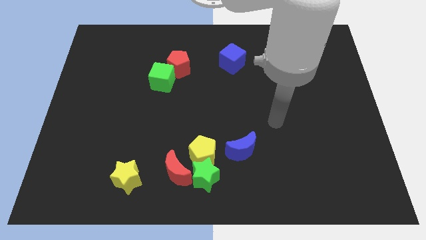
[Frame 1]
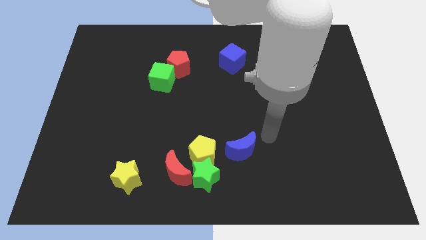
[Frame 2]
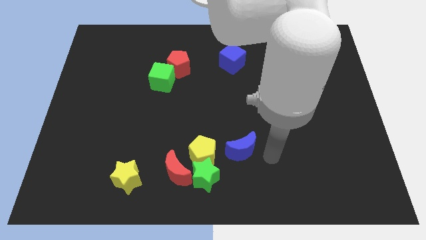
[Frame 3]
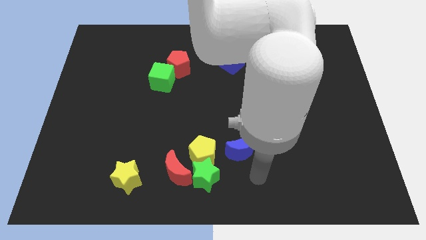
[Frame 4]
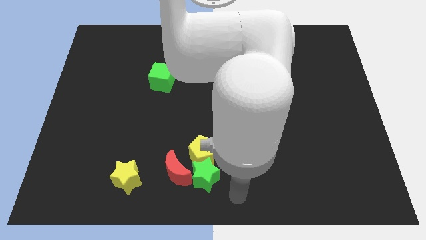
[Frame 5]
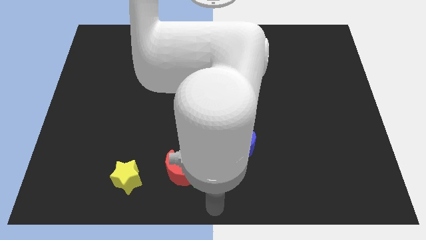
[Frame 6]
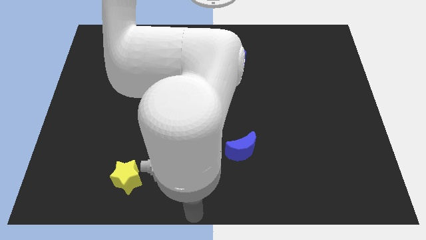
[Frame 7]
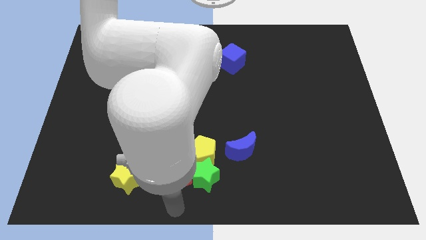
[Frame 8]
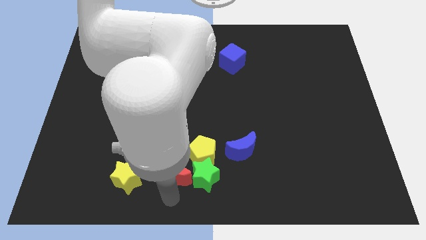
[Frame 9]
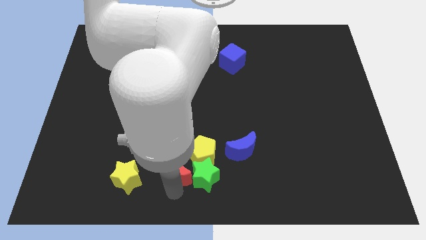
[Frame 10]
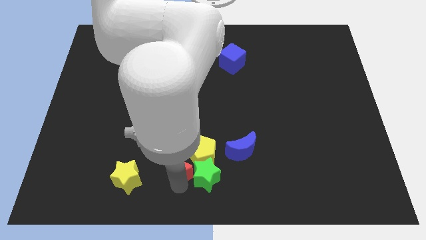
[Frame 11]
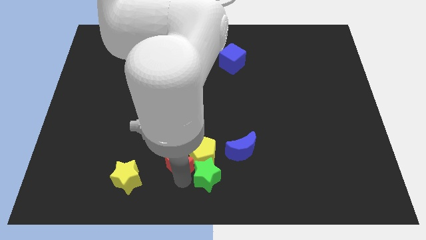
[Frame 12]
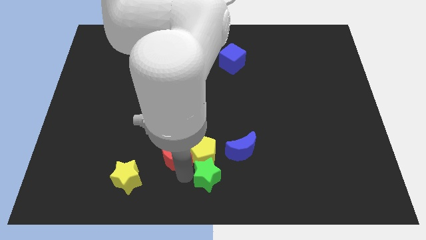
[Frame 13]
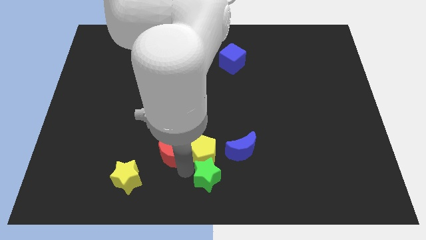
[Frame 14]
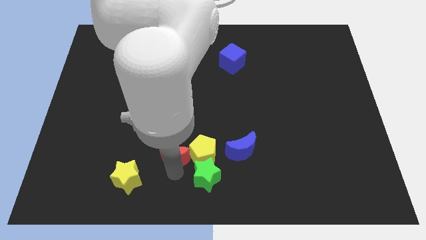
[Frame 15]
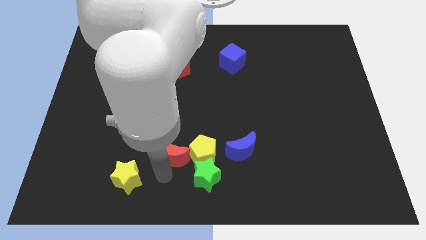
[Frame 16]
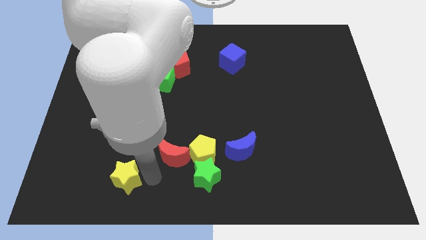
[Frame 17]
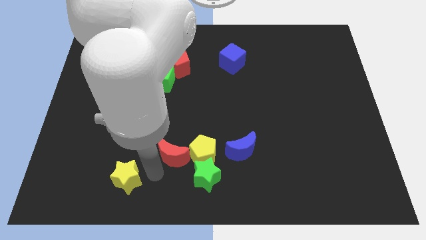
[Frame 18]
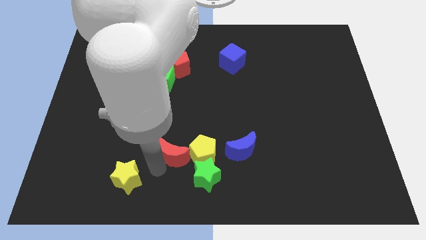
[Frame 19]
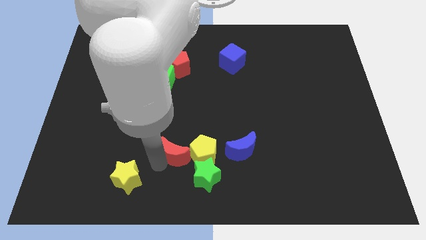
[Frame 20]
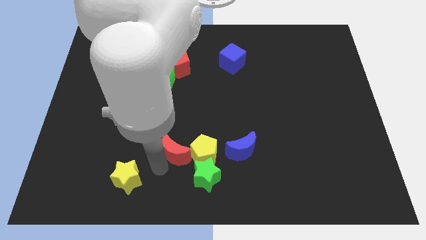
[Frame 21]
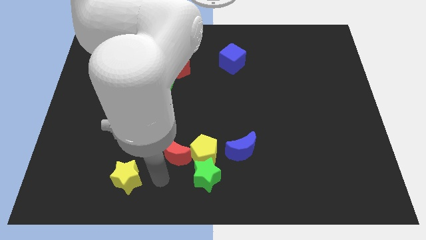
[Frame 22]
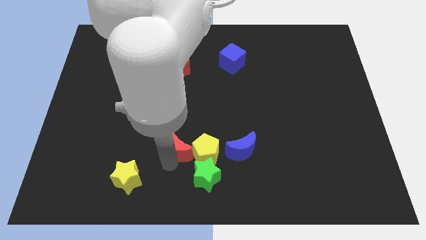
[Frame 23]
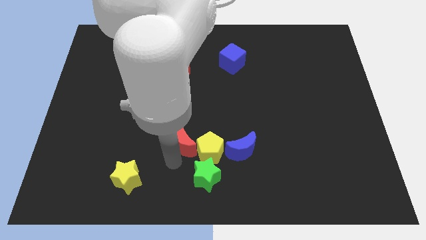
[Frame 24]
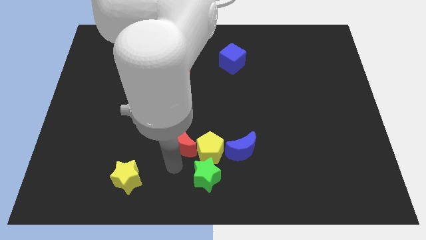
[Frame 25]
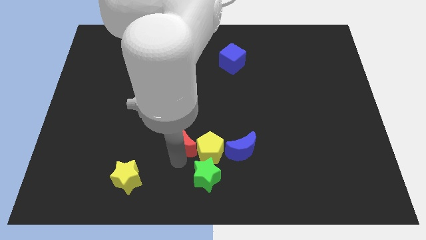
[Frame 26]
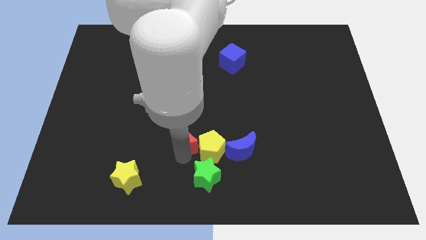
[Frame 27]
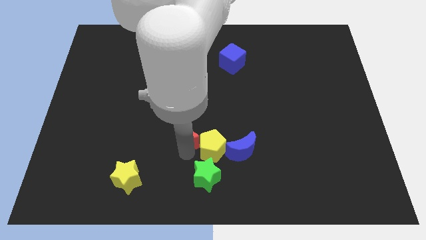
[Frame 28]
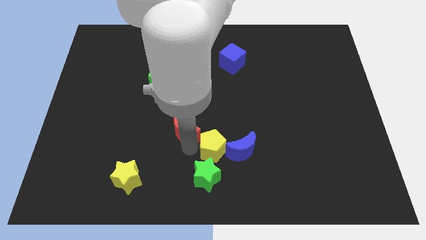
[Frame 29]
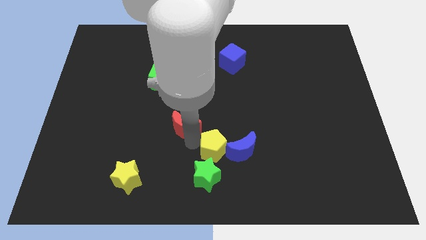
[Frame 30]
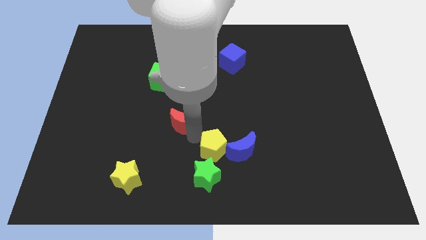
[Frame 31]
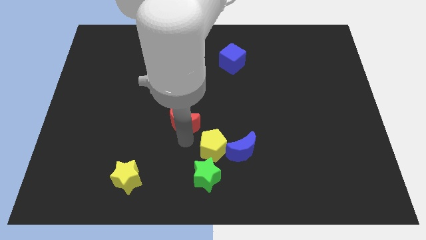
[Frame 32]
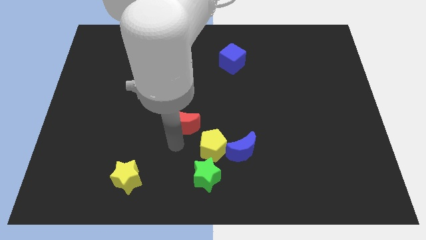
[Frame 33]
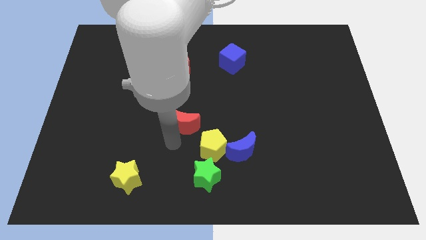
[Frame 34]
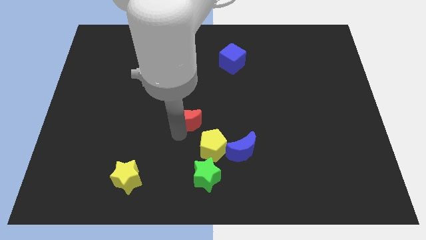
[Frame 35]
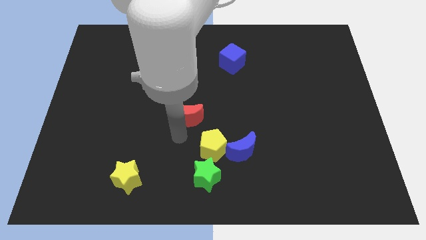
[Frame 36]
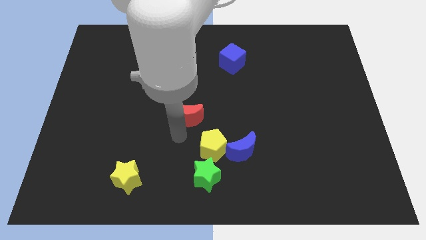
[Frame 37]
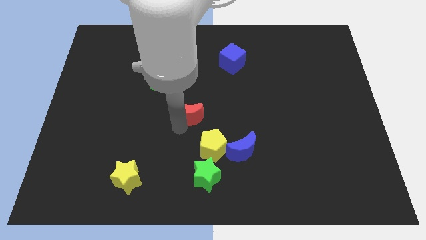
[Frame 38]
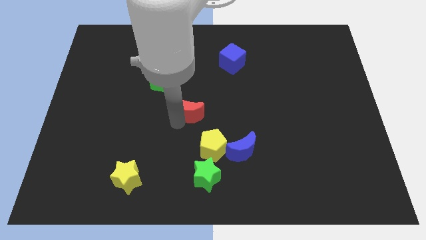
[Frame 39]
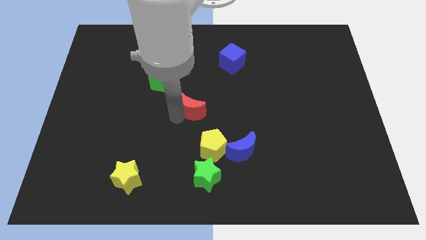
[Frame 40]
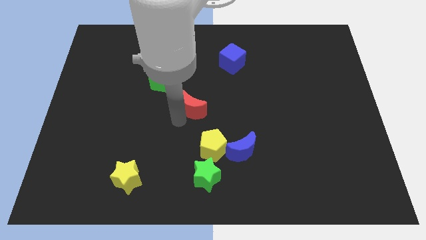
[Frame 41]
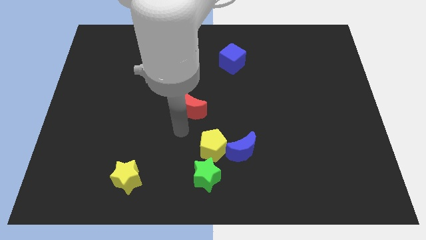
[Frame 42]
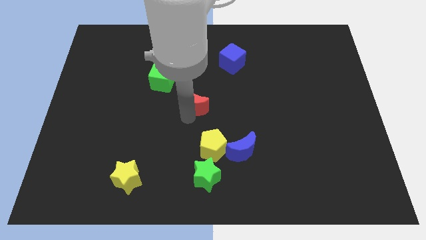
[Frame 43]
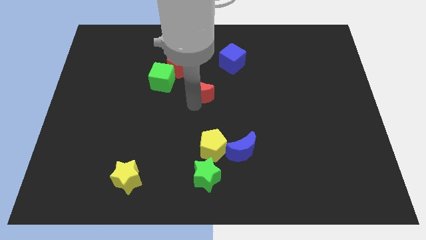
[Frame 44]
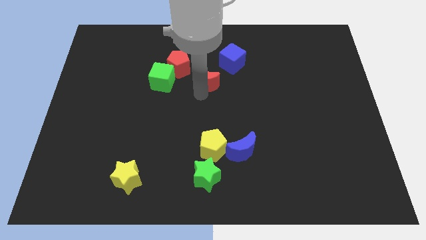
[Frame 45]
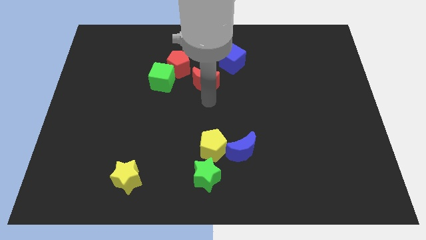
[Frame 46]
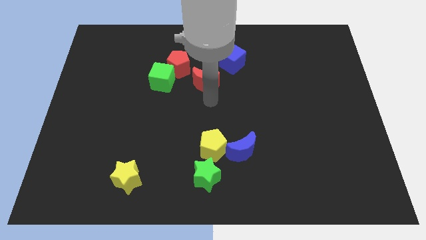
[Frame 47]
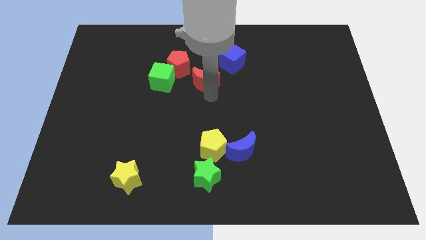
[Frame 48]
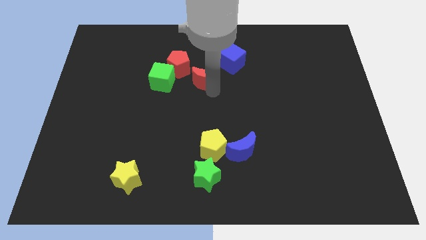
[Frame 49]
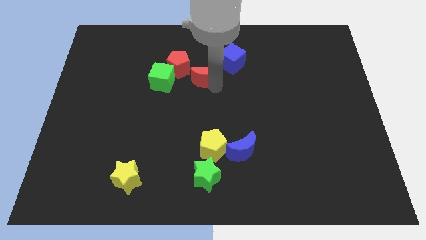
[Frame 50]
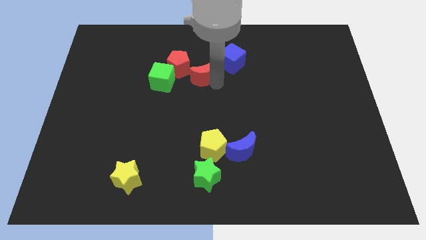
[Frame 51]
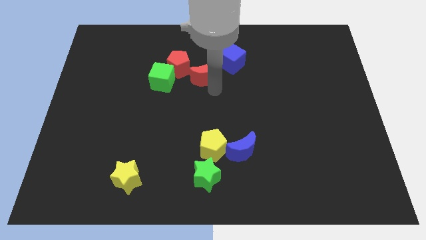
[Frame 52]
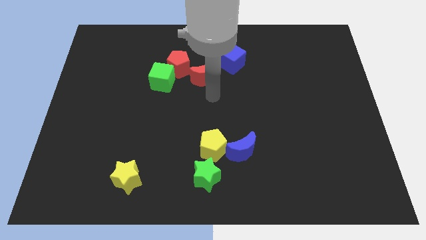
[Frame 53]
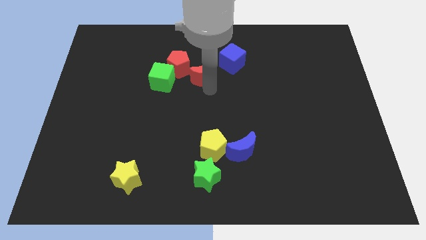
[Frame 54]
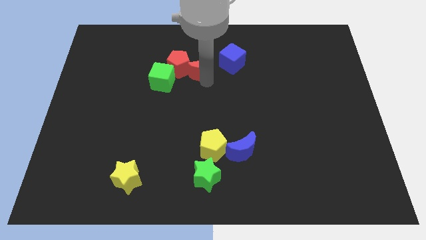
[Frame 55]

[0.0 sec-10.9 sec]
push the red moon to the top right side of the green cube

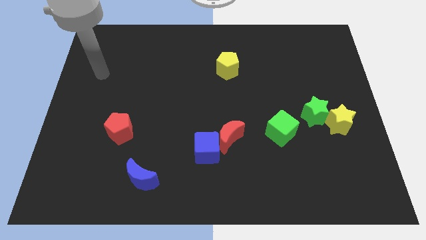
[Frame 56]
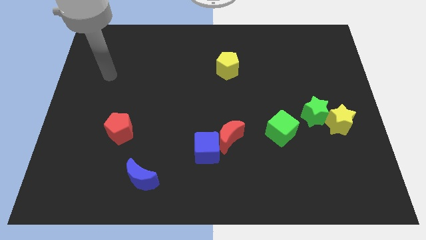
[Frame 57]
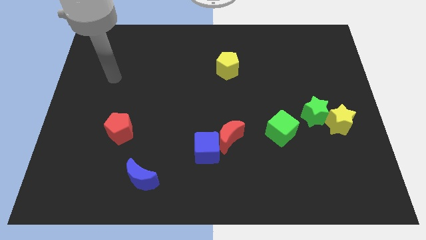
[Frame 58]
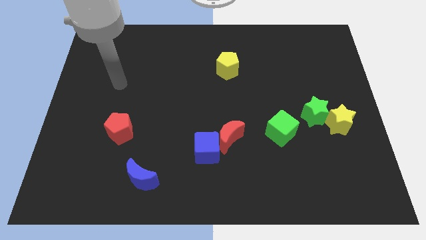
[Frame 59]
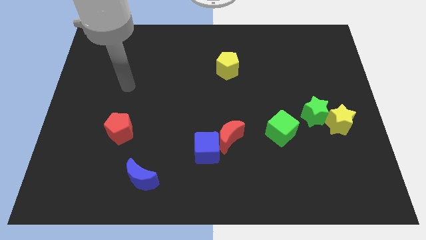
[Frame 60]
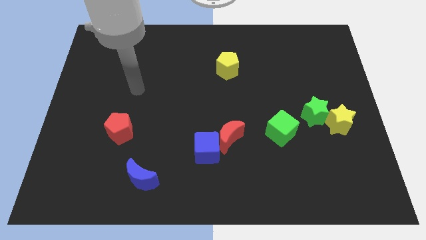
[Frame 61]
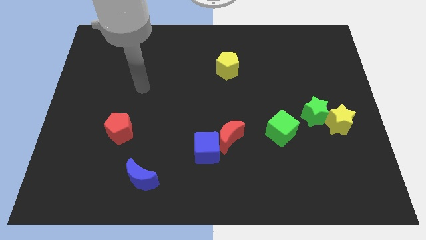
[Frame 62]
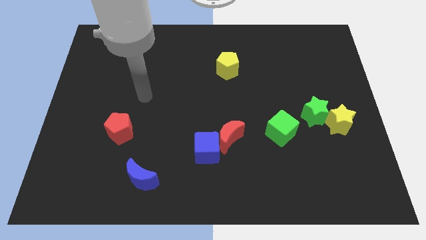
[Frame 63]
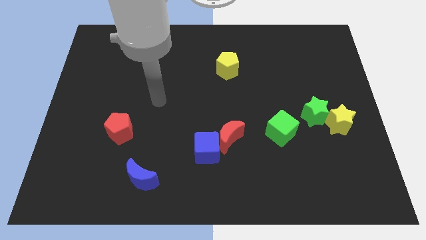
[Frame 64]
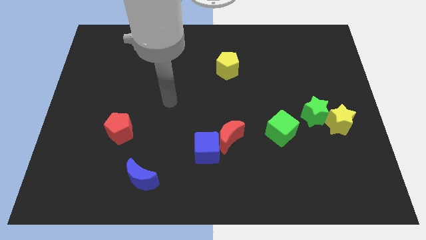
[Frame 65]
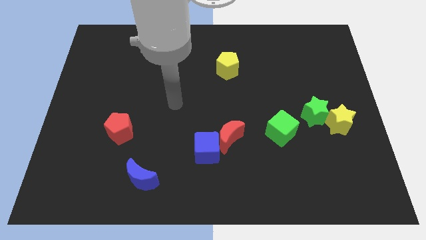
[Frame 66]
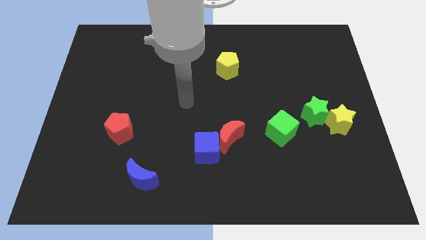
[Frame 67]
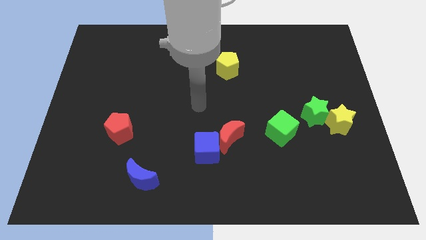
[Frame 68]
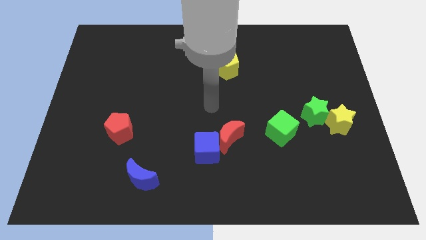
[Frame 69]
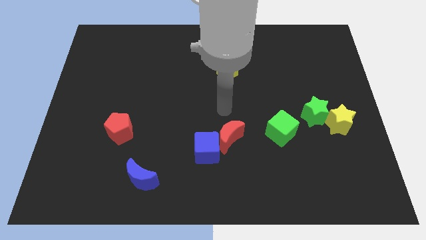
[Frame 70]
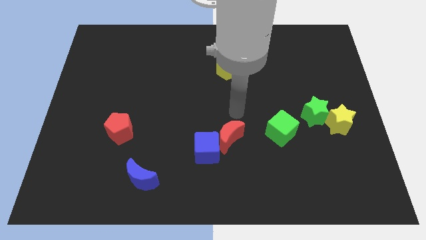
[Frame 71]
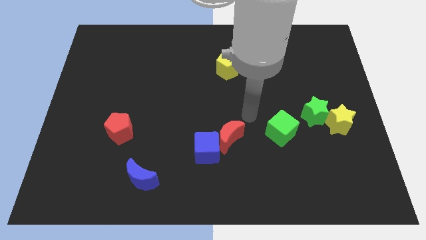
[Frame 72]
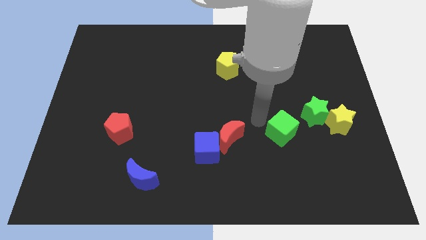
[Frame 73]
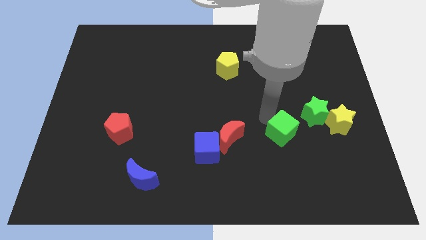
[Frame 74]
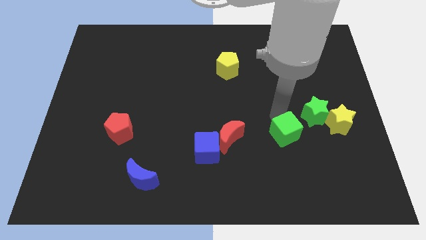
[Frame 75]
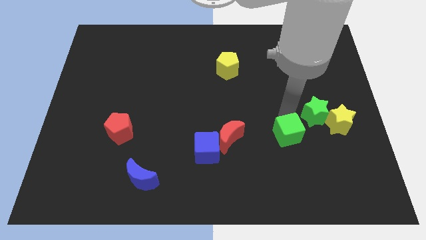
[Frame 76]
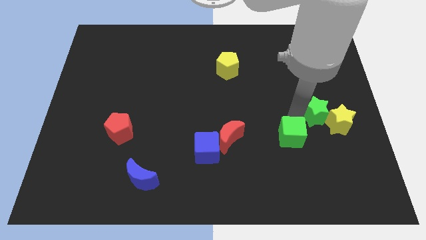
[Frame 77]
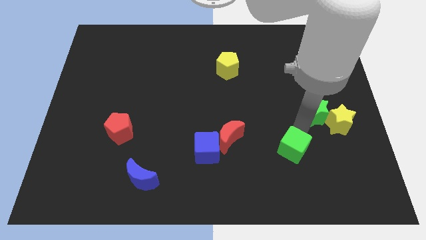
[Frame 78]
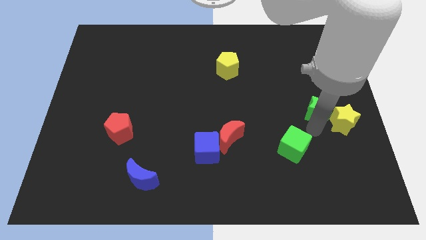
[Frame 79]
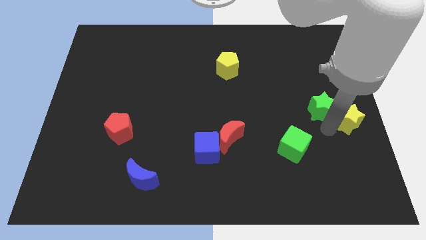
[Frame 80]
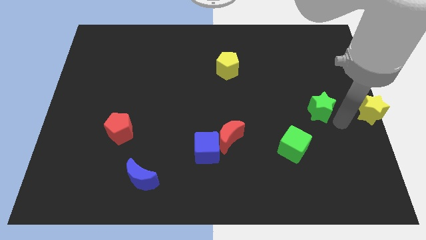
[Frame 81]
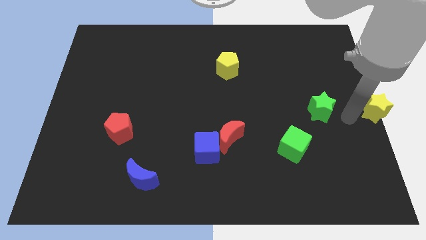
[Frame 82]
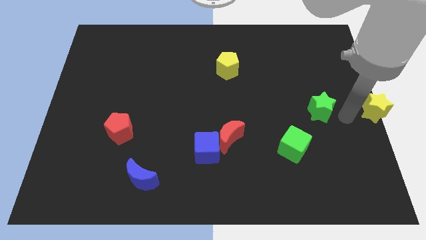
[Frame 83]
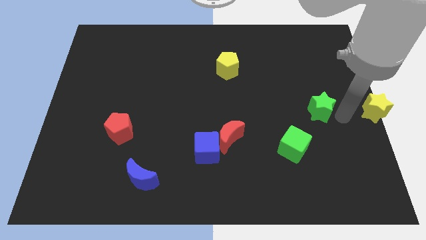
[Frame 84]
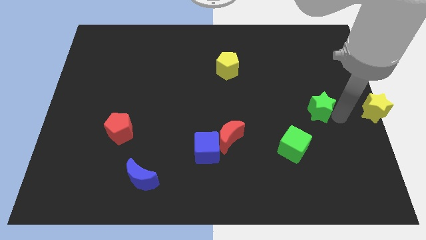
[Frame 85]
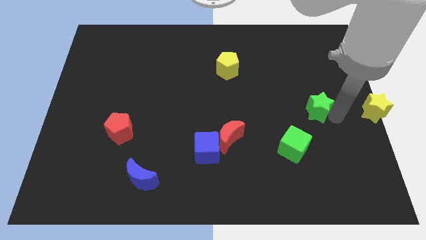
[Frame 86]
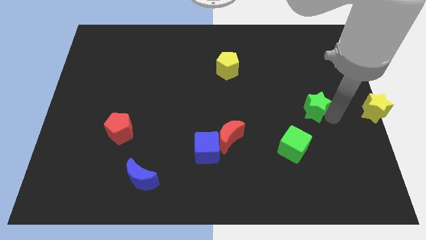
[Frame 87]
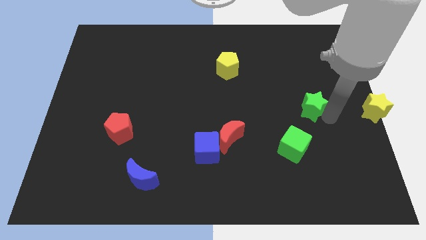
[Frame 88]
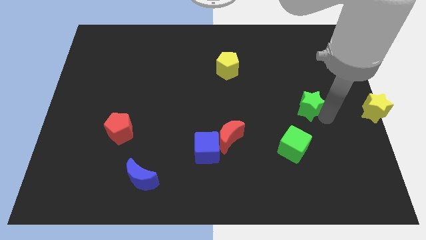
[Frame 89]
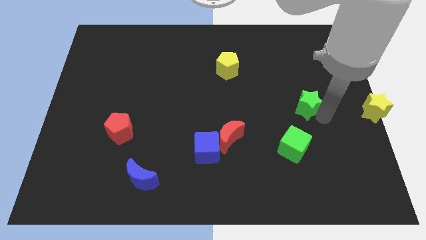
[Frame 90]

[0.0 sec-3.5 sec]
push the green star to the top of the green cube
